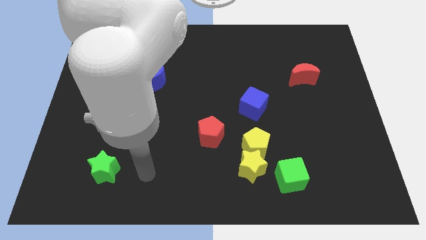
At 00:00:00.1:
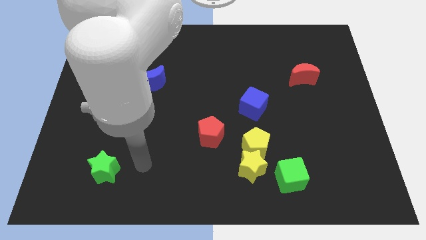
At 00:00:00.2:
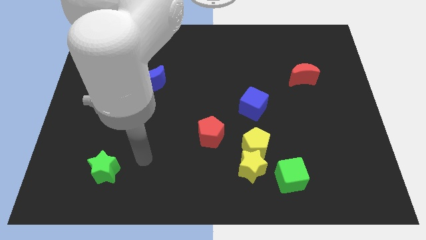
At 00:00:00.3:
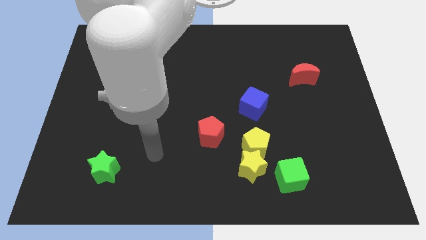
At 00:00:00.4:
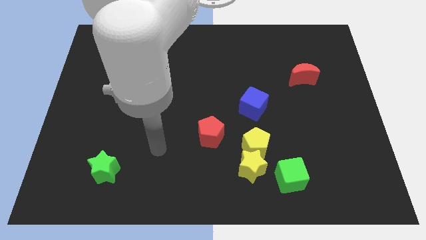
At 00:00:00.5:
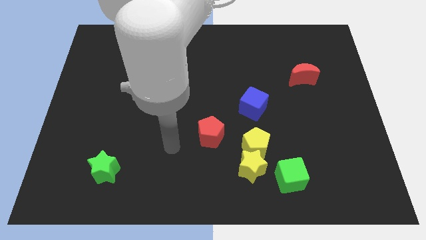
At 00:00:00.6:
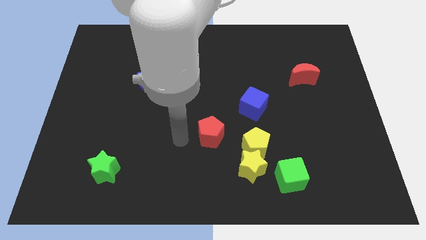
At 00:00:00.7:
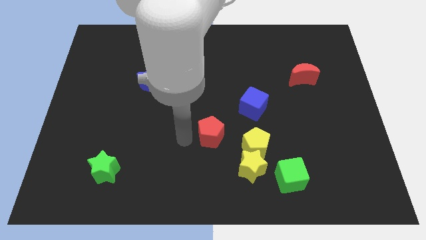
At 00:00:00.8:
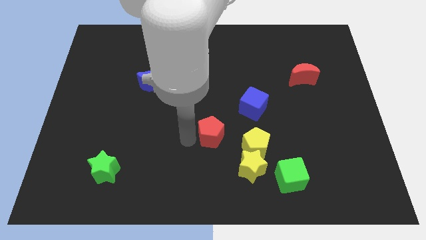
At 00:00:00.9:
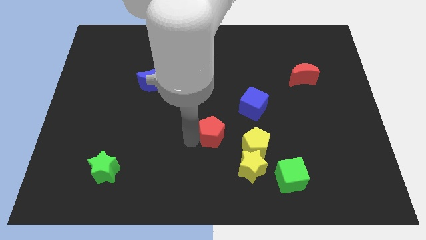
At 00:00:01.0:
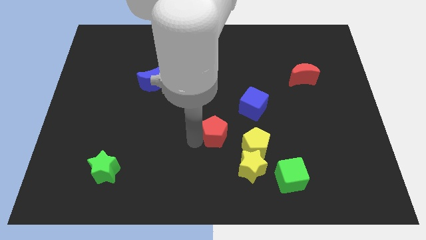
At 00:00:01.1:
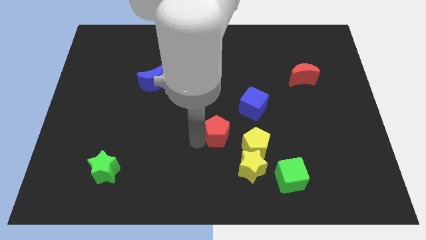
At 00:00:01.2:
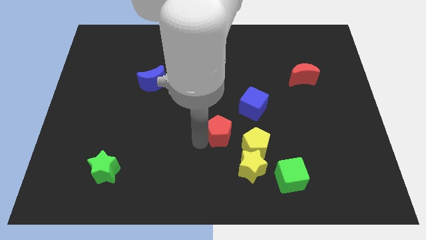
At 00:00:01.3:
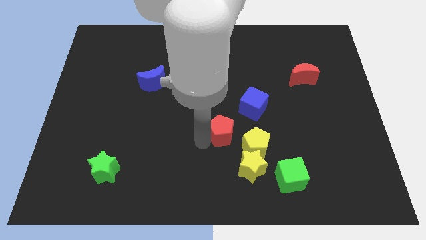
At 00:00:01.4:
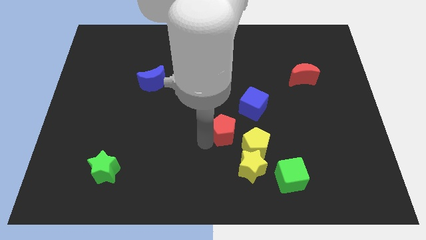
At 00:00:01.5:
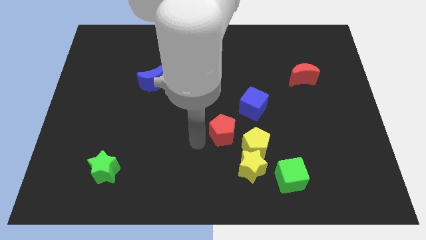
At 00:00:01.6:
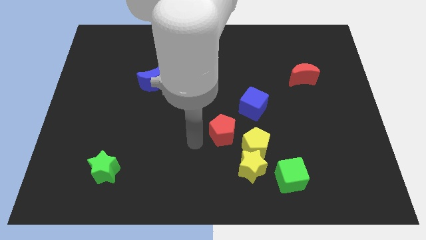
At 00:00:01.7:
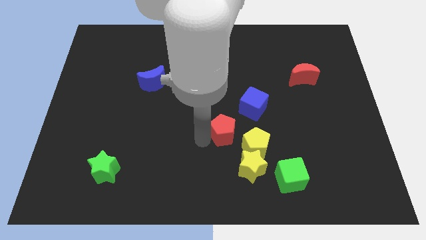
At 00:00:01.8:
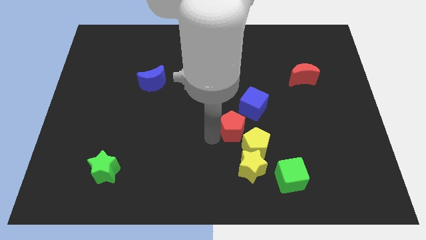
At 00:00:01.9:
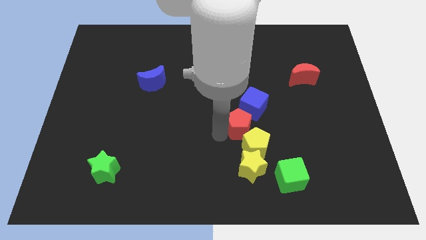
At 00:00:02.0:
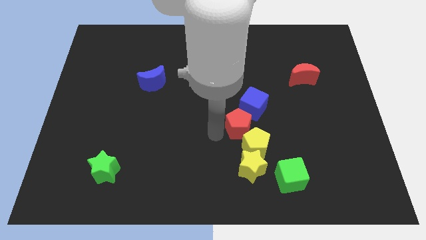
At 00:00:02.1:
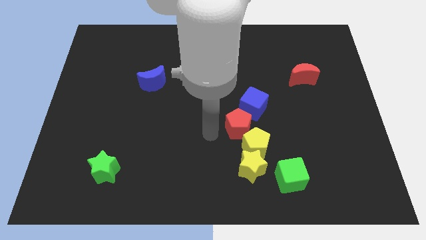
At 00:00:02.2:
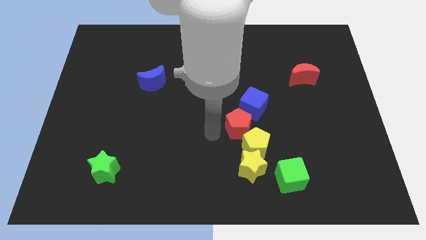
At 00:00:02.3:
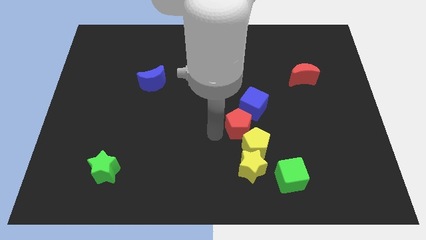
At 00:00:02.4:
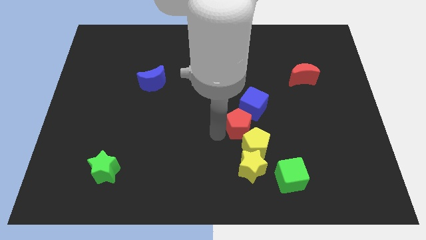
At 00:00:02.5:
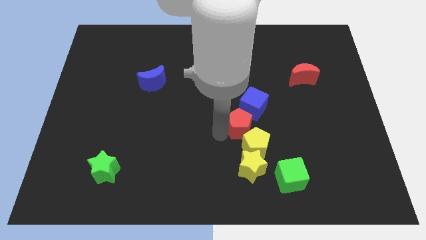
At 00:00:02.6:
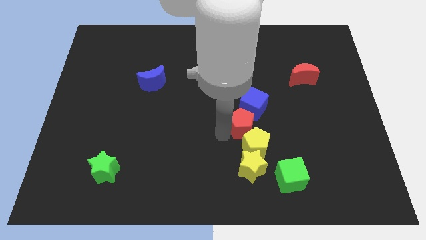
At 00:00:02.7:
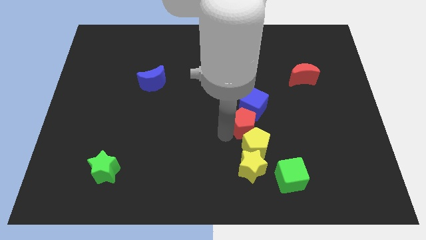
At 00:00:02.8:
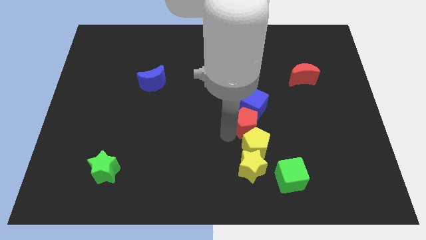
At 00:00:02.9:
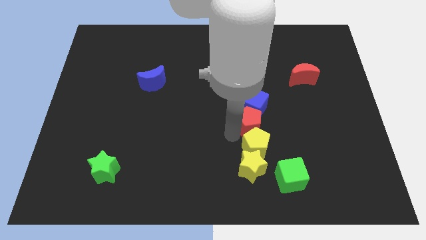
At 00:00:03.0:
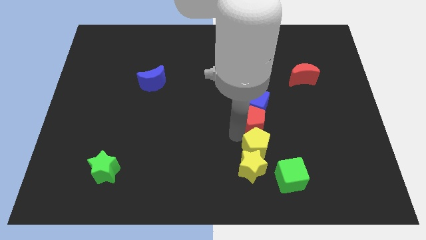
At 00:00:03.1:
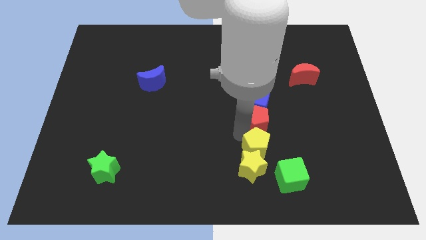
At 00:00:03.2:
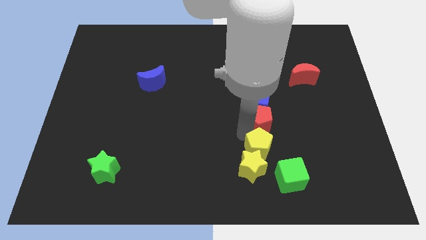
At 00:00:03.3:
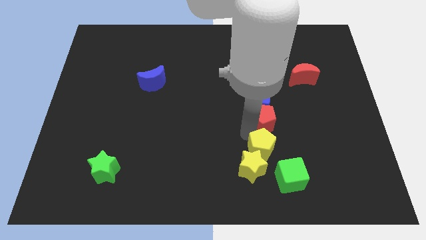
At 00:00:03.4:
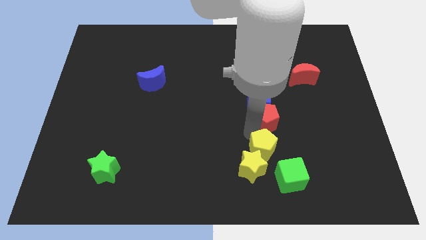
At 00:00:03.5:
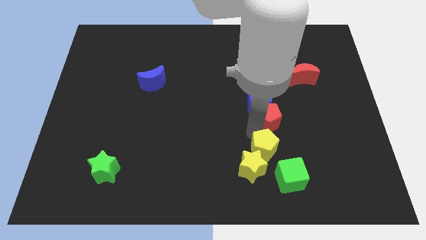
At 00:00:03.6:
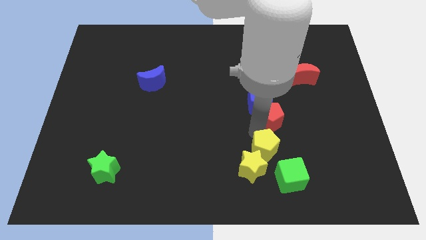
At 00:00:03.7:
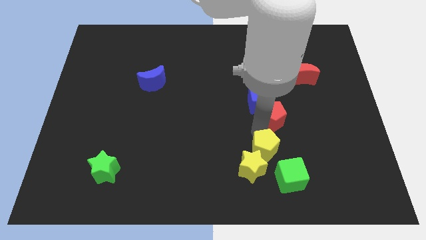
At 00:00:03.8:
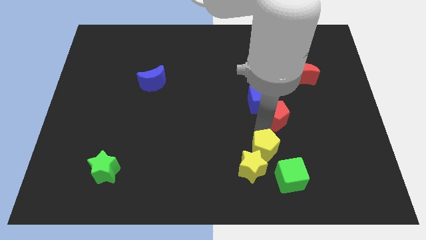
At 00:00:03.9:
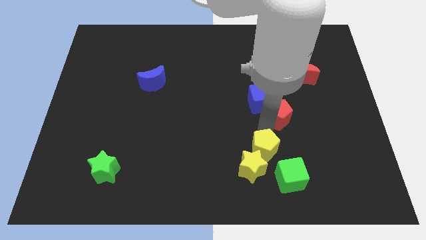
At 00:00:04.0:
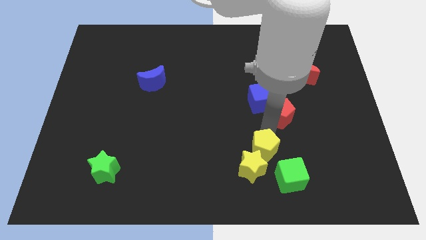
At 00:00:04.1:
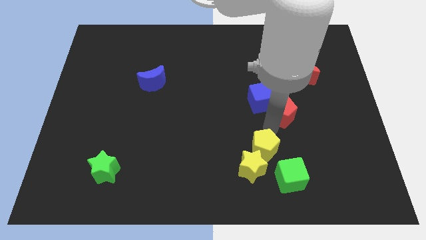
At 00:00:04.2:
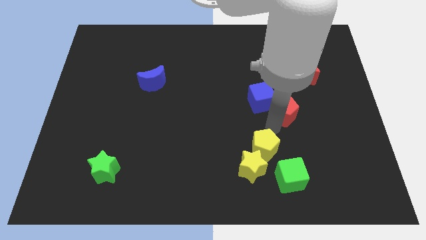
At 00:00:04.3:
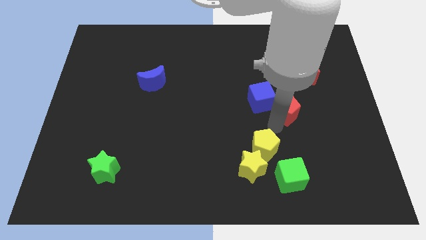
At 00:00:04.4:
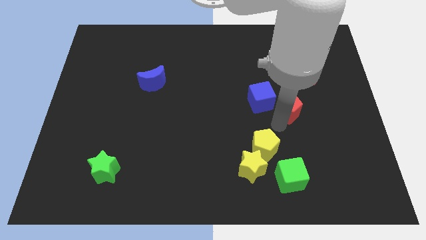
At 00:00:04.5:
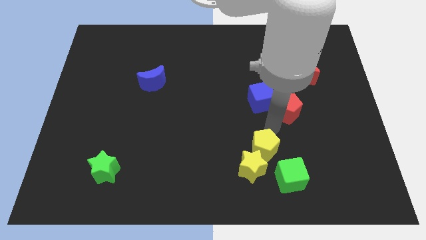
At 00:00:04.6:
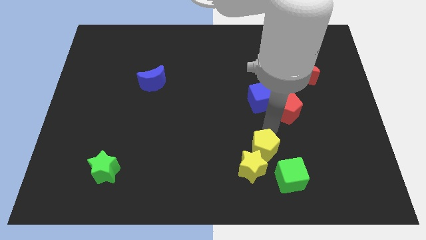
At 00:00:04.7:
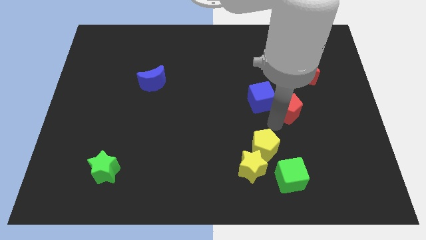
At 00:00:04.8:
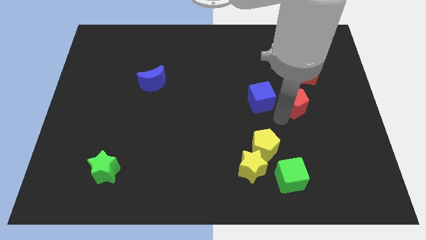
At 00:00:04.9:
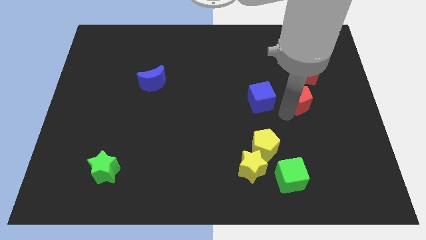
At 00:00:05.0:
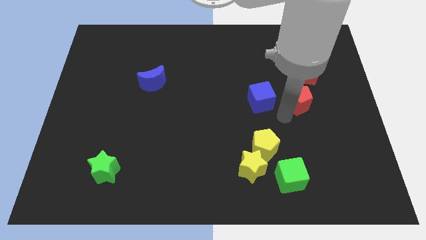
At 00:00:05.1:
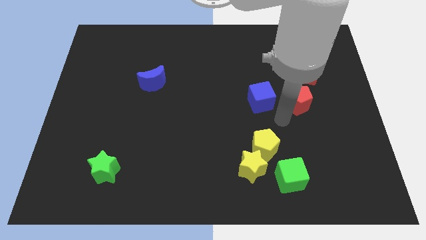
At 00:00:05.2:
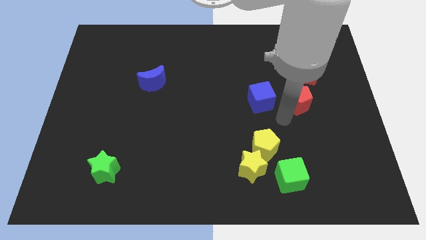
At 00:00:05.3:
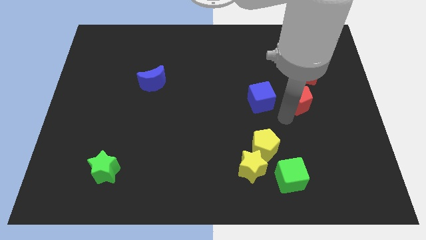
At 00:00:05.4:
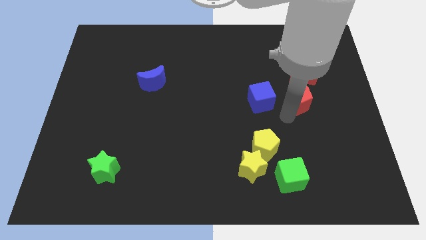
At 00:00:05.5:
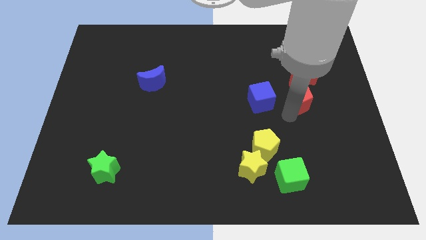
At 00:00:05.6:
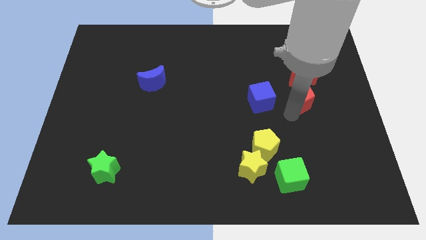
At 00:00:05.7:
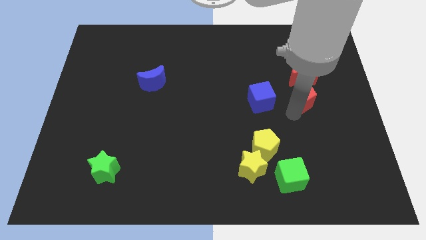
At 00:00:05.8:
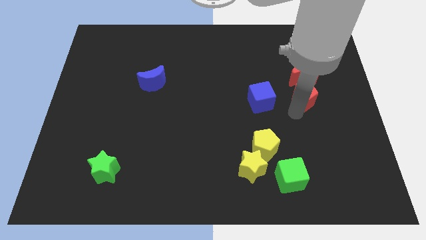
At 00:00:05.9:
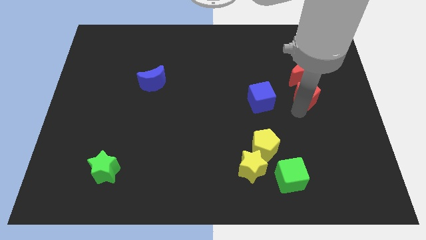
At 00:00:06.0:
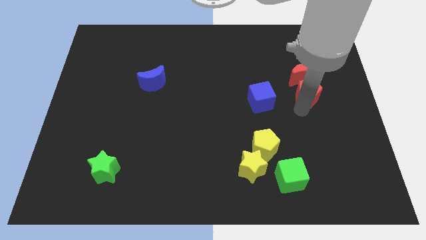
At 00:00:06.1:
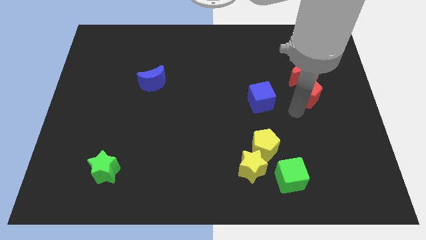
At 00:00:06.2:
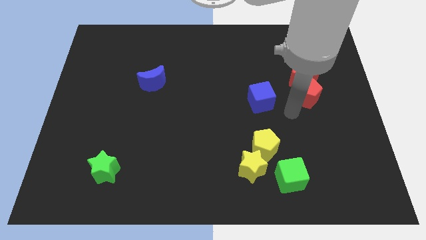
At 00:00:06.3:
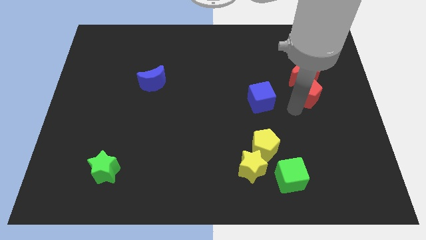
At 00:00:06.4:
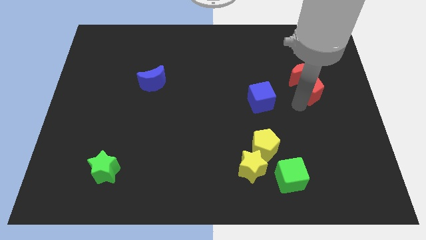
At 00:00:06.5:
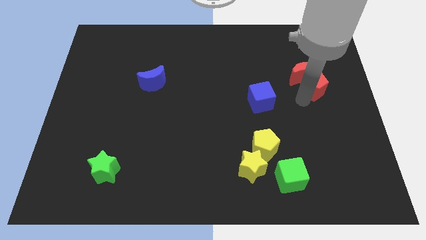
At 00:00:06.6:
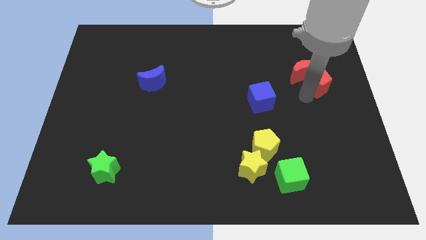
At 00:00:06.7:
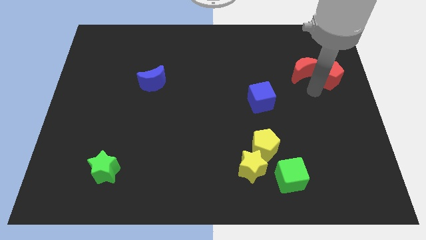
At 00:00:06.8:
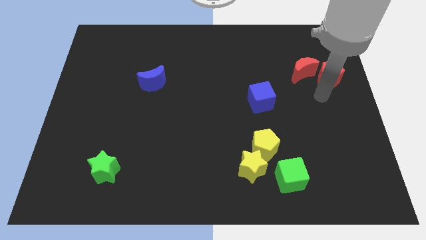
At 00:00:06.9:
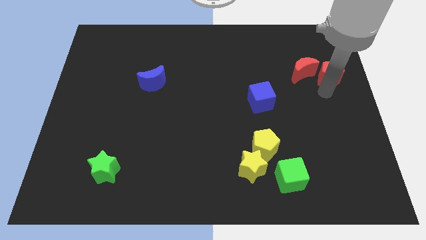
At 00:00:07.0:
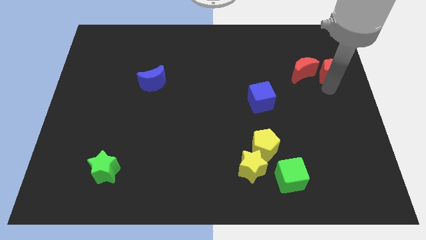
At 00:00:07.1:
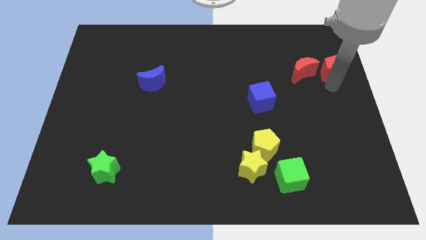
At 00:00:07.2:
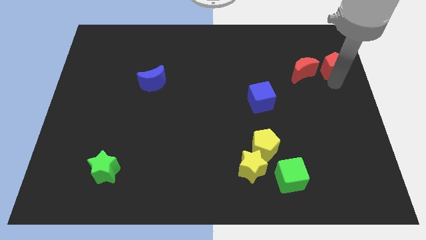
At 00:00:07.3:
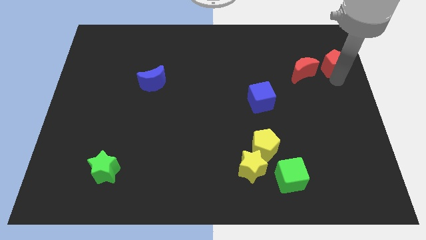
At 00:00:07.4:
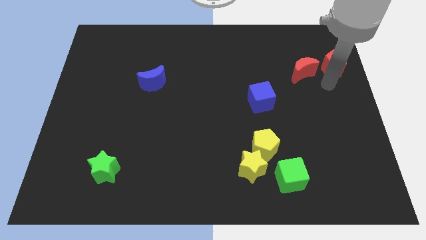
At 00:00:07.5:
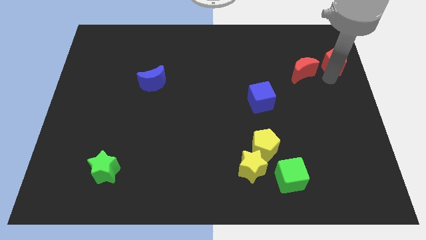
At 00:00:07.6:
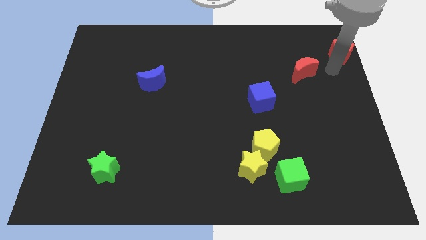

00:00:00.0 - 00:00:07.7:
put the red pentagon to the upper right corner
